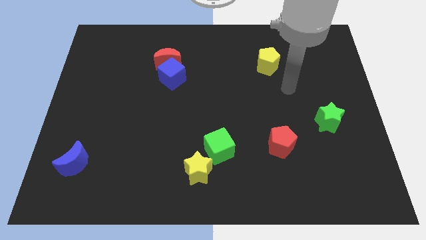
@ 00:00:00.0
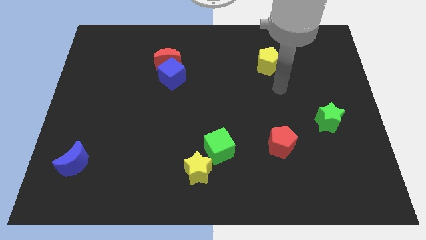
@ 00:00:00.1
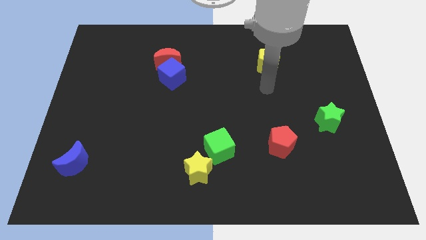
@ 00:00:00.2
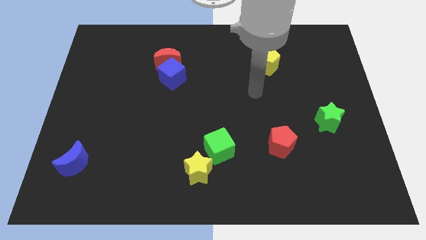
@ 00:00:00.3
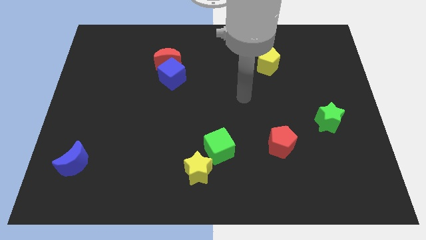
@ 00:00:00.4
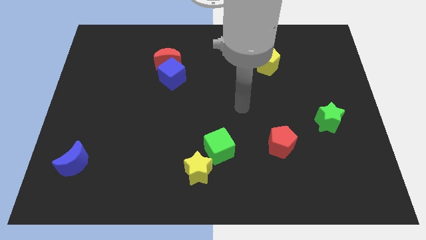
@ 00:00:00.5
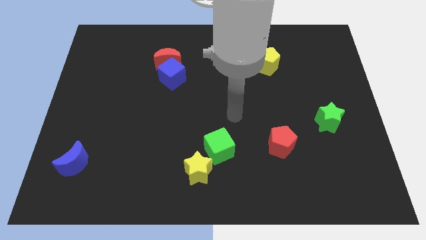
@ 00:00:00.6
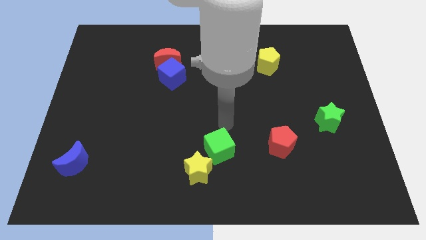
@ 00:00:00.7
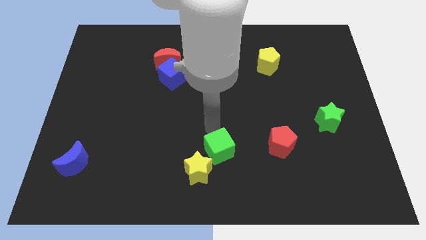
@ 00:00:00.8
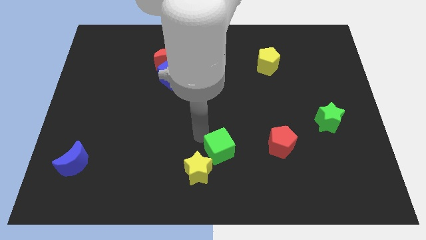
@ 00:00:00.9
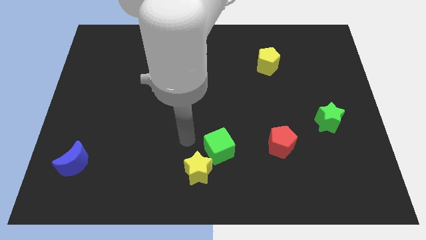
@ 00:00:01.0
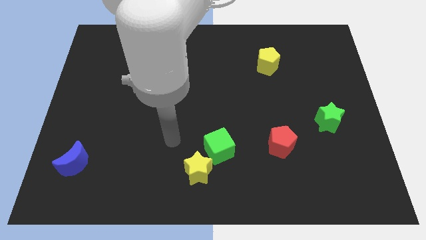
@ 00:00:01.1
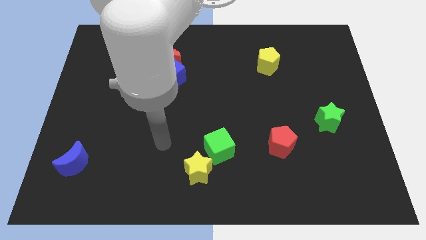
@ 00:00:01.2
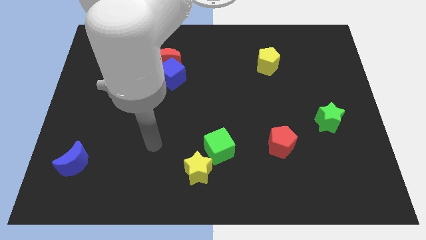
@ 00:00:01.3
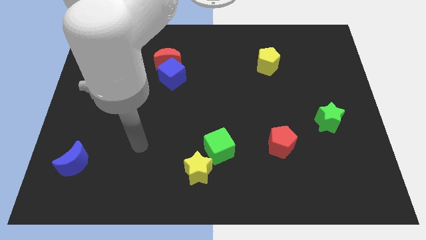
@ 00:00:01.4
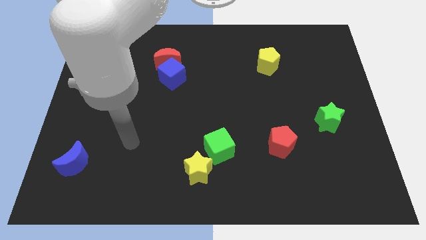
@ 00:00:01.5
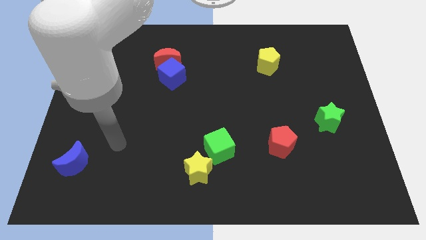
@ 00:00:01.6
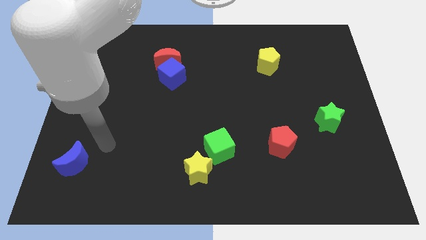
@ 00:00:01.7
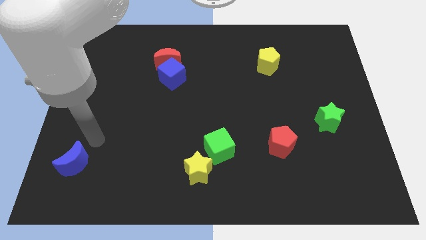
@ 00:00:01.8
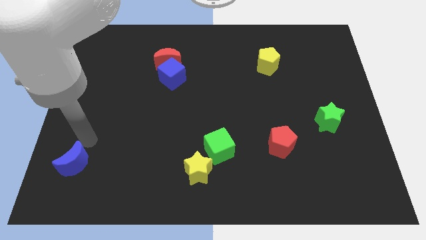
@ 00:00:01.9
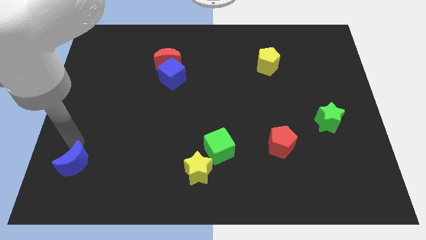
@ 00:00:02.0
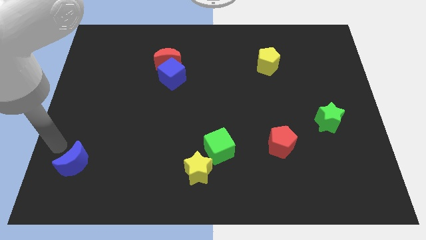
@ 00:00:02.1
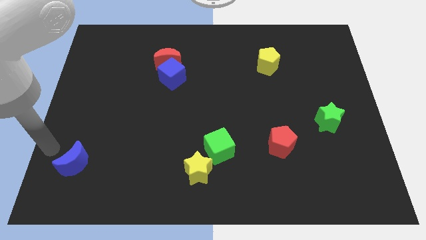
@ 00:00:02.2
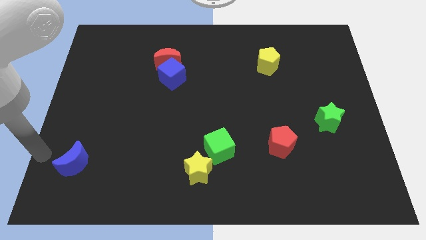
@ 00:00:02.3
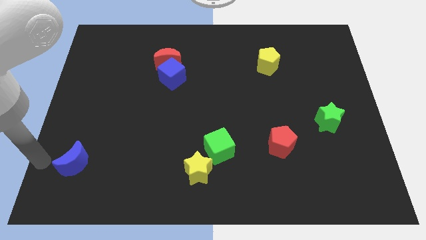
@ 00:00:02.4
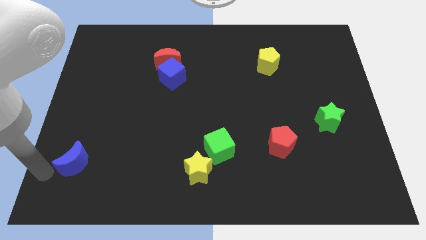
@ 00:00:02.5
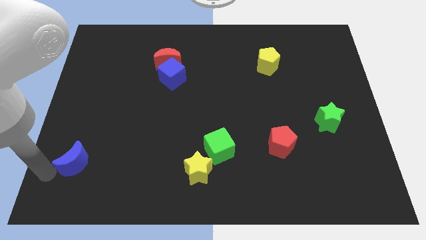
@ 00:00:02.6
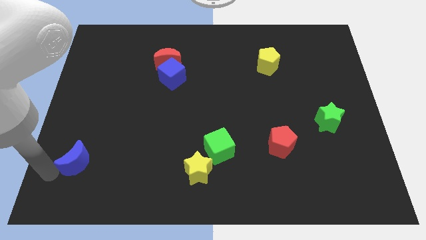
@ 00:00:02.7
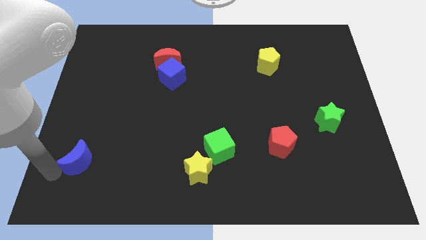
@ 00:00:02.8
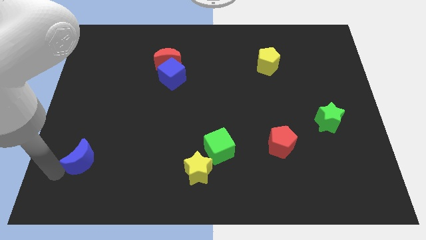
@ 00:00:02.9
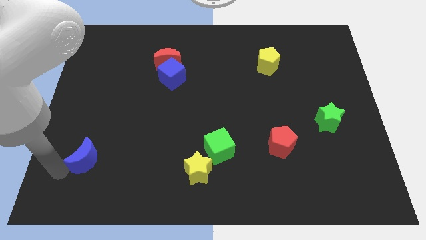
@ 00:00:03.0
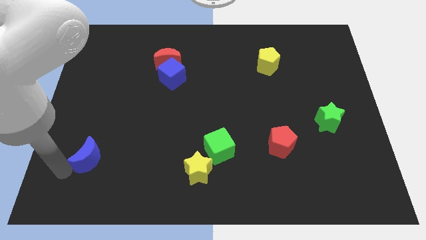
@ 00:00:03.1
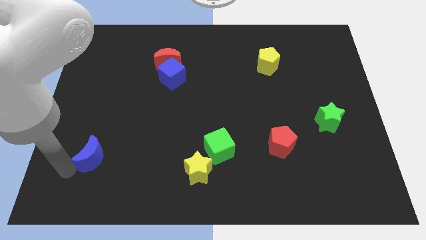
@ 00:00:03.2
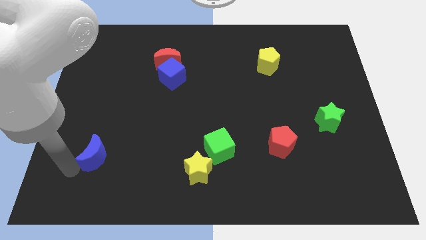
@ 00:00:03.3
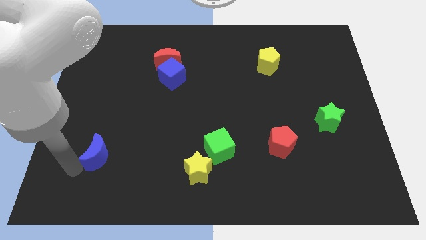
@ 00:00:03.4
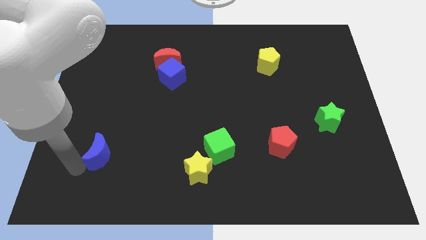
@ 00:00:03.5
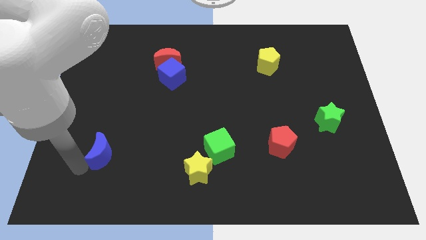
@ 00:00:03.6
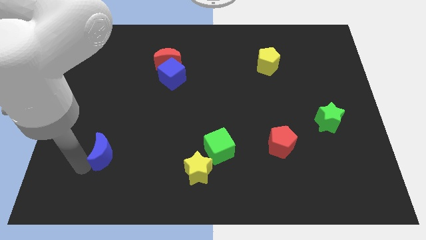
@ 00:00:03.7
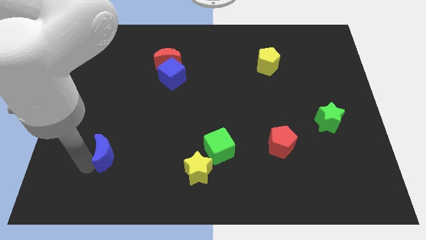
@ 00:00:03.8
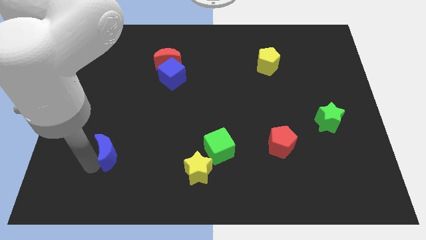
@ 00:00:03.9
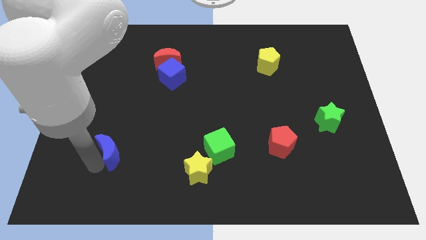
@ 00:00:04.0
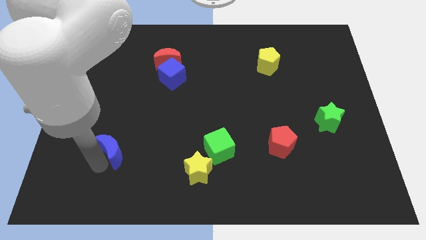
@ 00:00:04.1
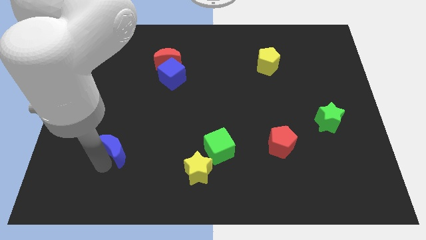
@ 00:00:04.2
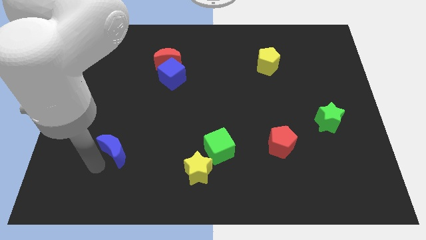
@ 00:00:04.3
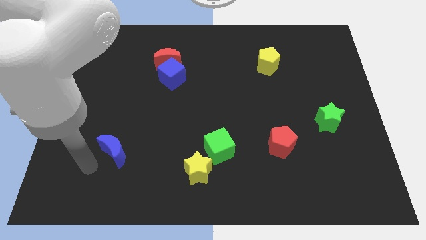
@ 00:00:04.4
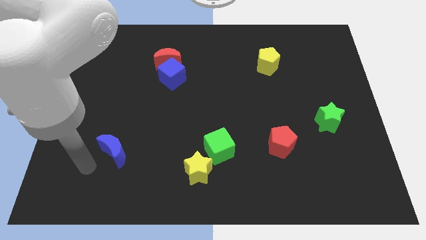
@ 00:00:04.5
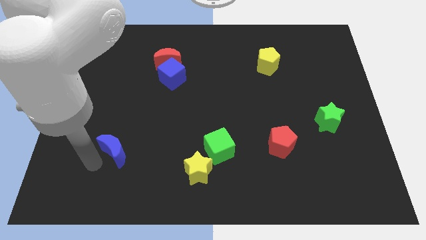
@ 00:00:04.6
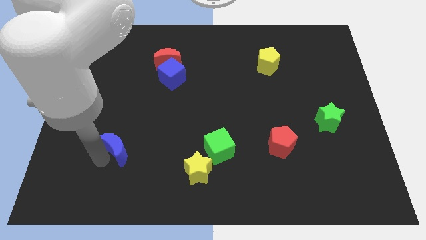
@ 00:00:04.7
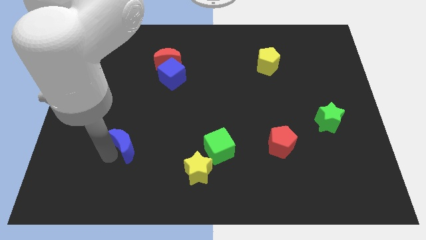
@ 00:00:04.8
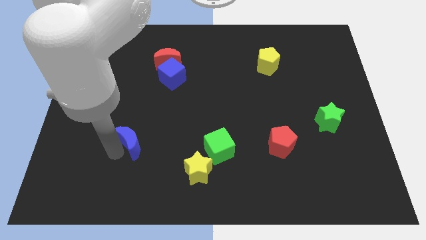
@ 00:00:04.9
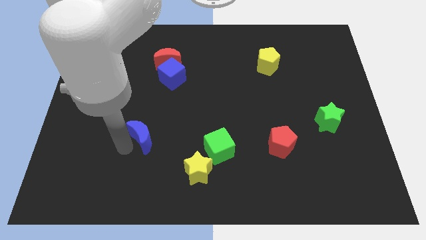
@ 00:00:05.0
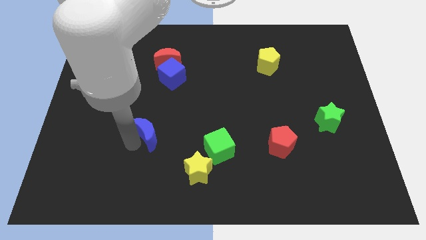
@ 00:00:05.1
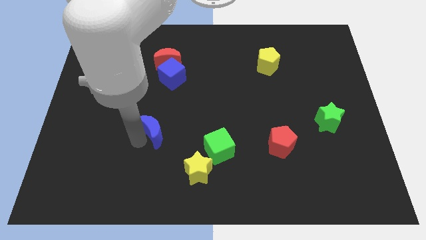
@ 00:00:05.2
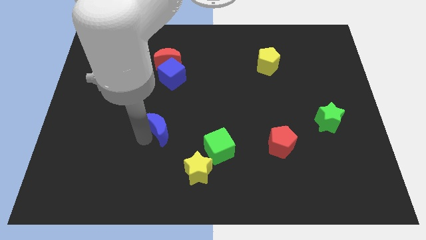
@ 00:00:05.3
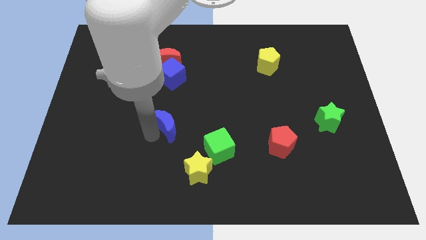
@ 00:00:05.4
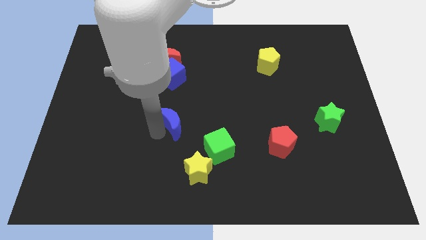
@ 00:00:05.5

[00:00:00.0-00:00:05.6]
slide the blue moon to the center

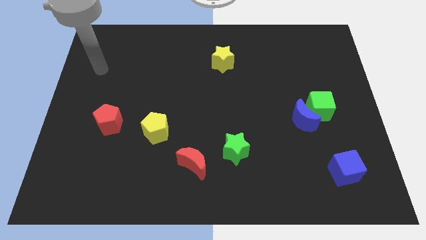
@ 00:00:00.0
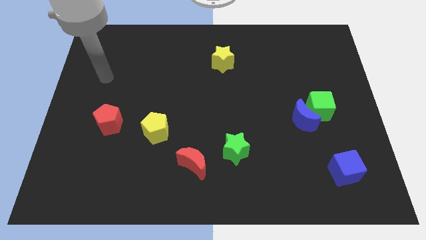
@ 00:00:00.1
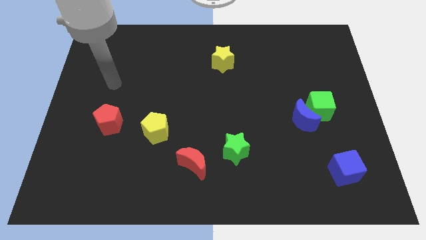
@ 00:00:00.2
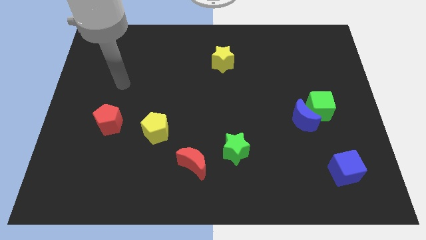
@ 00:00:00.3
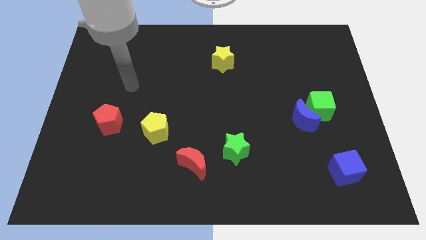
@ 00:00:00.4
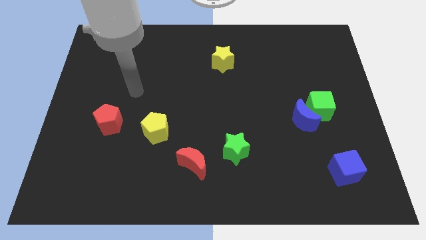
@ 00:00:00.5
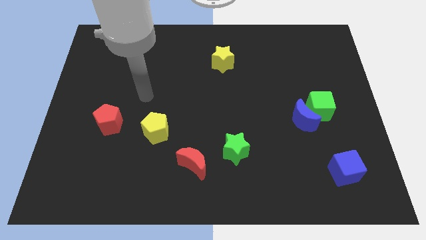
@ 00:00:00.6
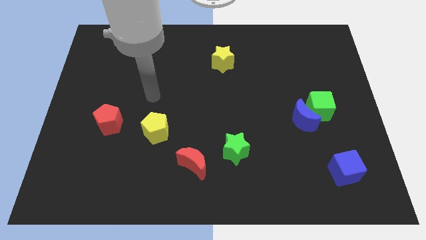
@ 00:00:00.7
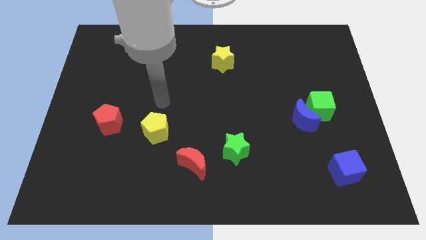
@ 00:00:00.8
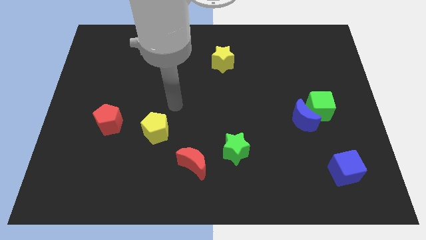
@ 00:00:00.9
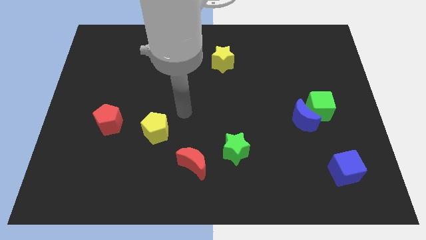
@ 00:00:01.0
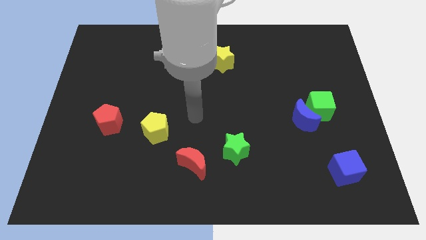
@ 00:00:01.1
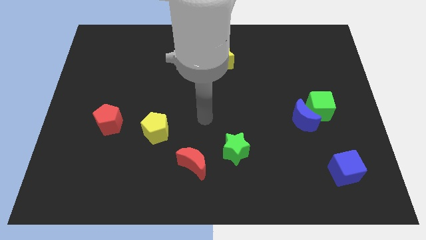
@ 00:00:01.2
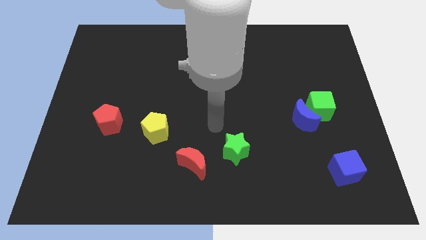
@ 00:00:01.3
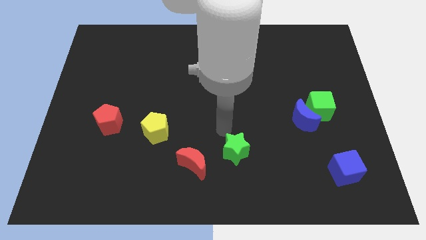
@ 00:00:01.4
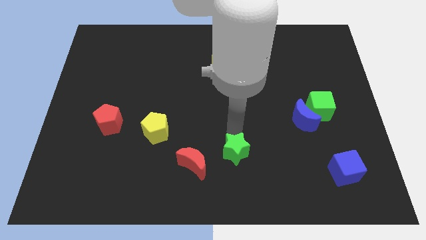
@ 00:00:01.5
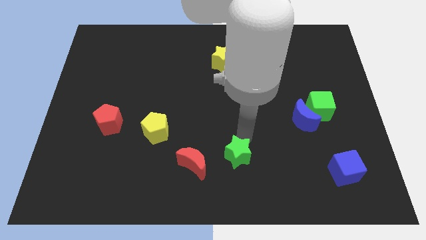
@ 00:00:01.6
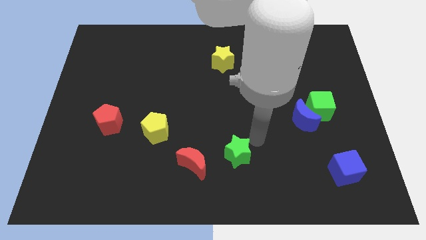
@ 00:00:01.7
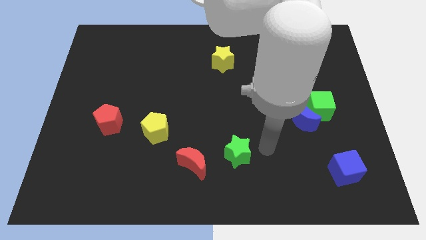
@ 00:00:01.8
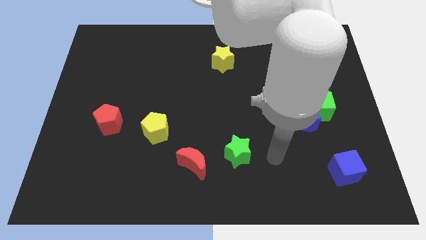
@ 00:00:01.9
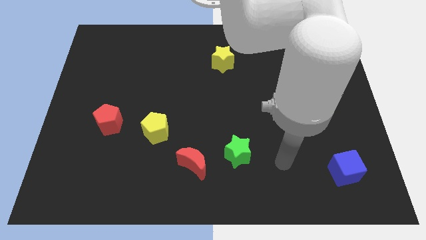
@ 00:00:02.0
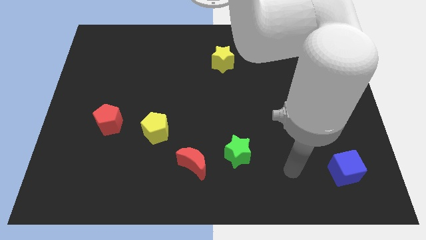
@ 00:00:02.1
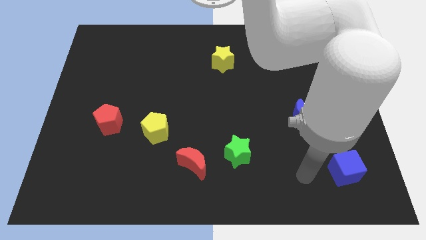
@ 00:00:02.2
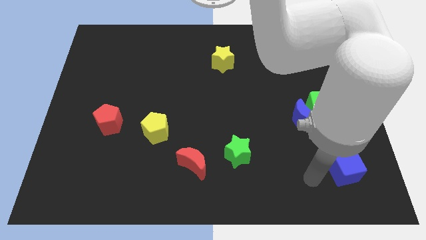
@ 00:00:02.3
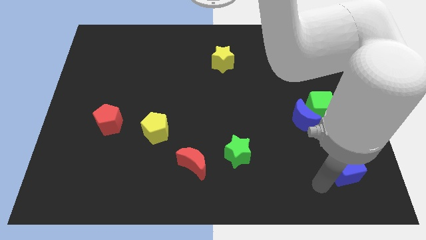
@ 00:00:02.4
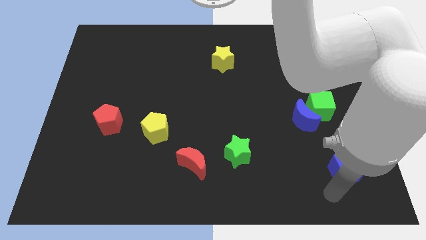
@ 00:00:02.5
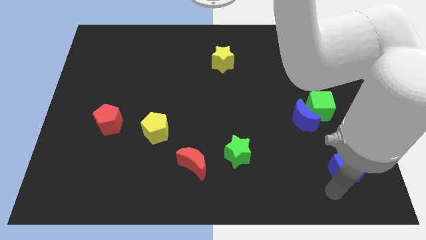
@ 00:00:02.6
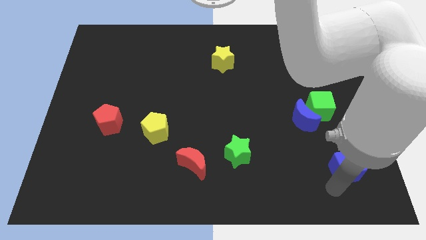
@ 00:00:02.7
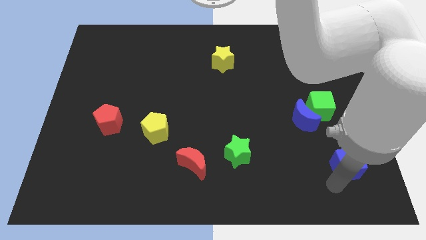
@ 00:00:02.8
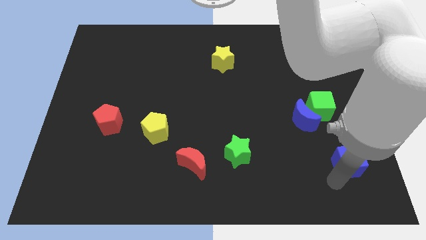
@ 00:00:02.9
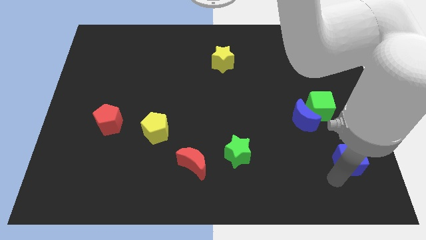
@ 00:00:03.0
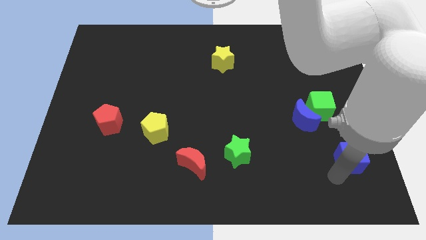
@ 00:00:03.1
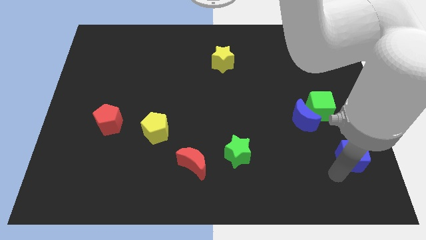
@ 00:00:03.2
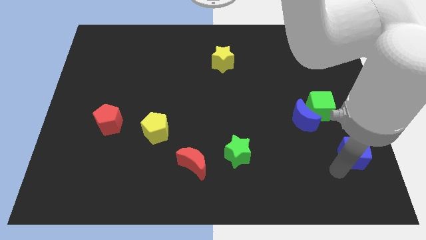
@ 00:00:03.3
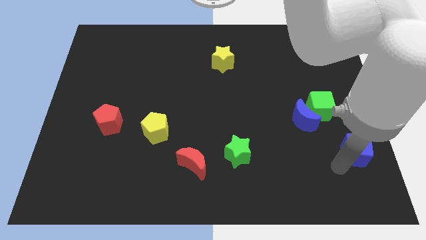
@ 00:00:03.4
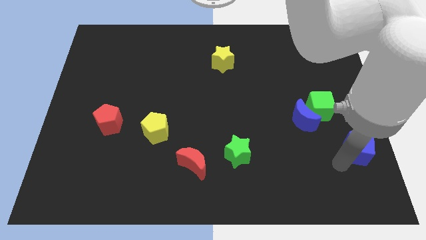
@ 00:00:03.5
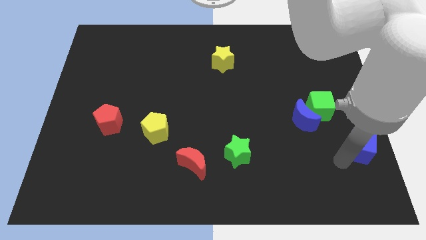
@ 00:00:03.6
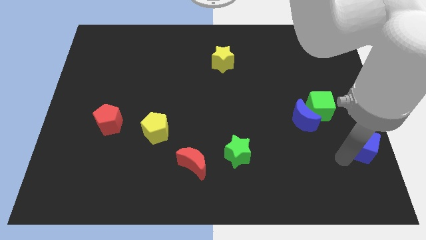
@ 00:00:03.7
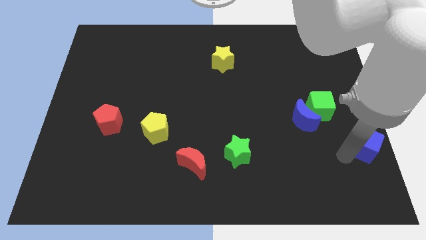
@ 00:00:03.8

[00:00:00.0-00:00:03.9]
slide the blue cube to the center right
